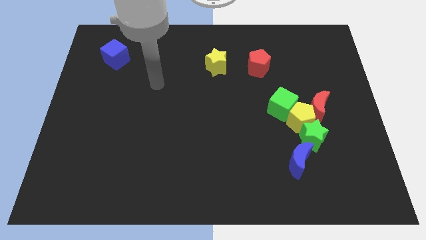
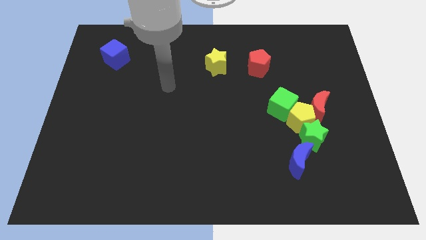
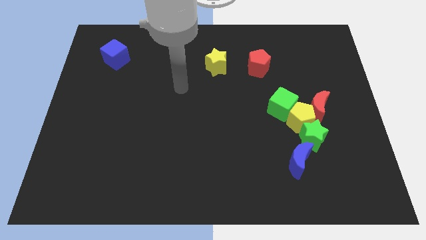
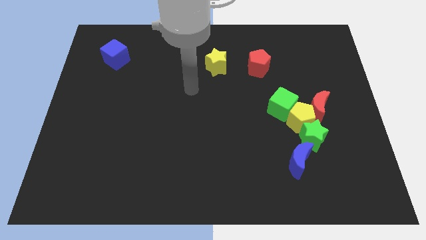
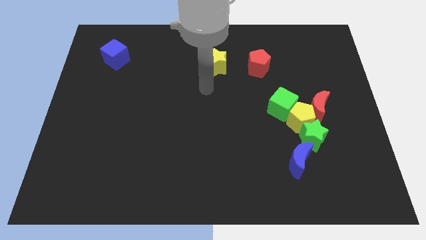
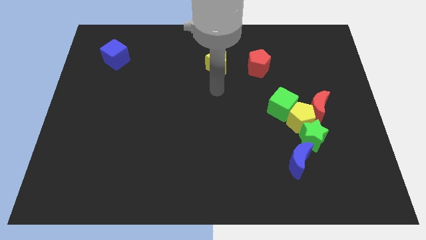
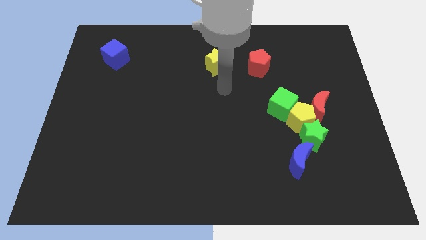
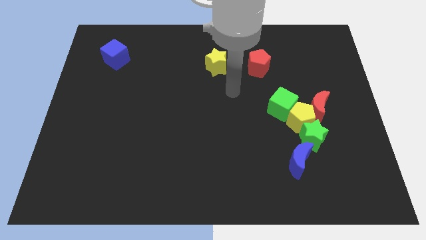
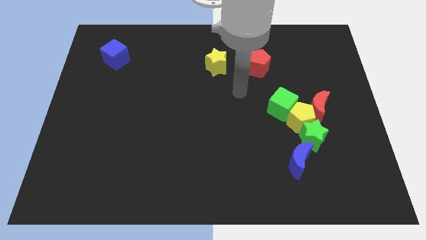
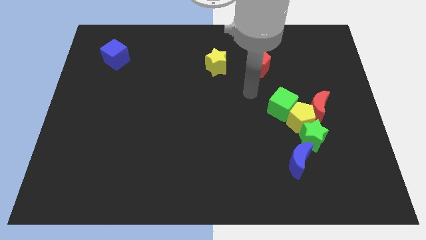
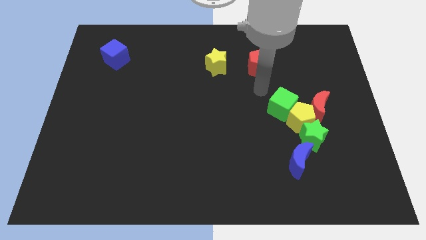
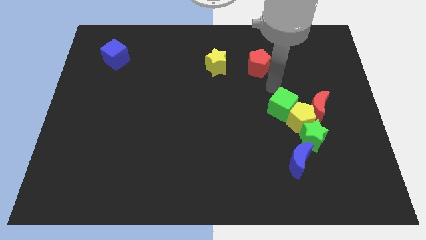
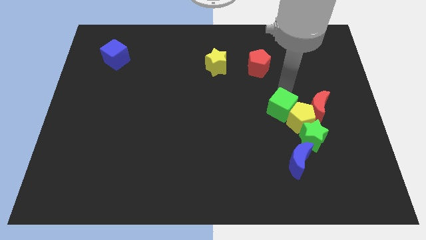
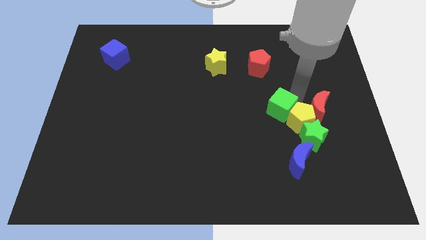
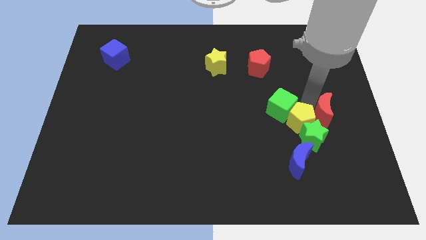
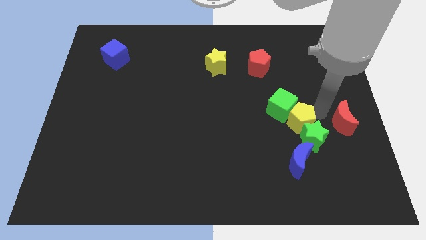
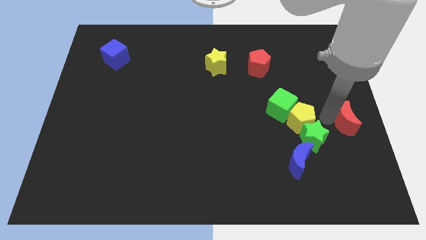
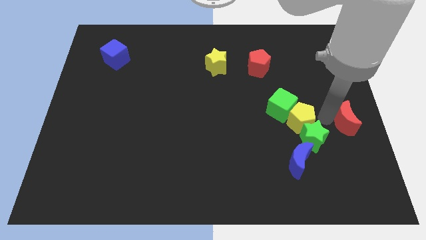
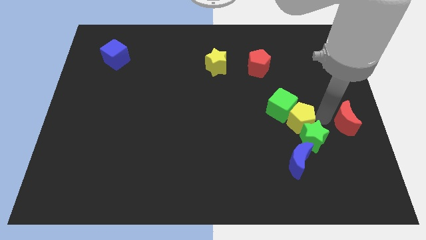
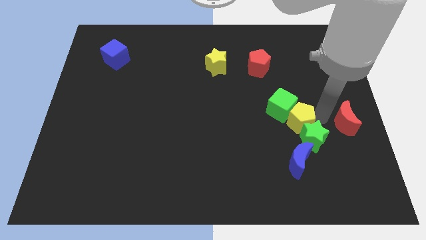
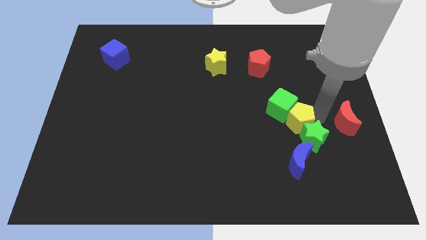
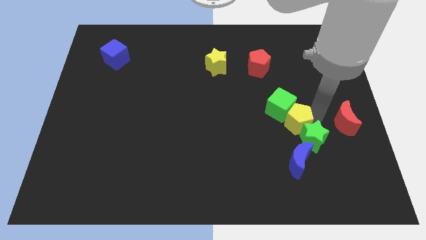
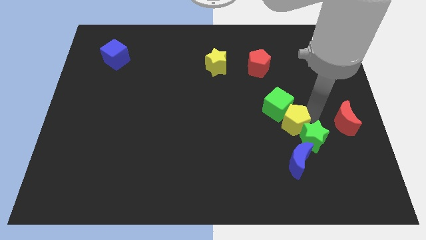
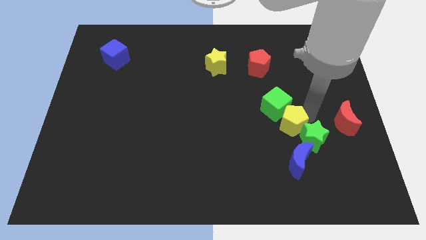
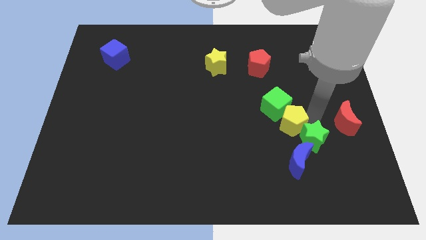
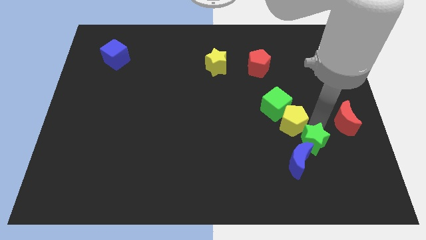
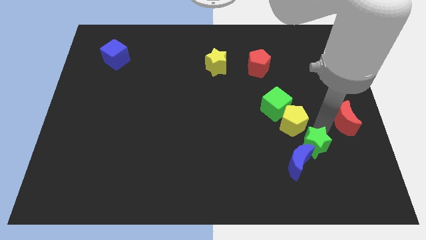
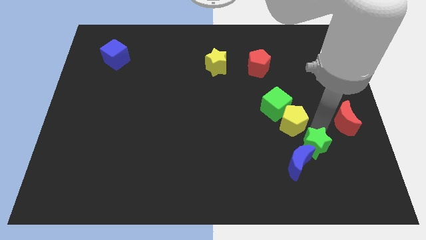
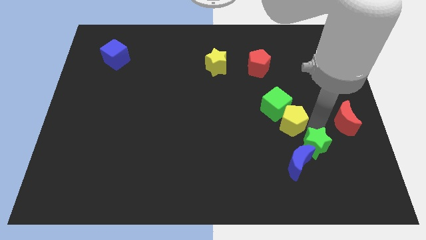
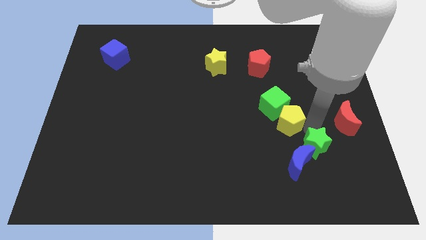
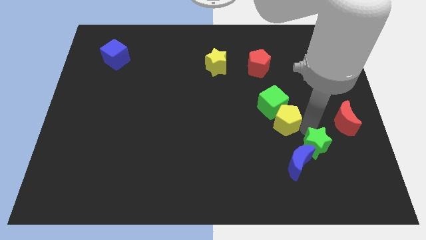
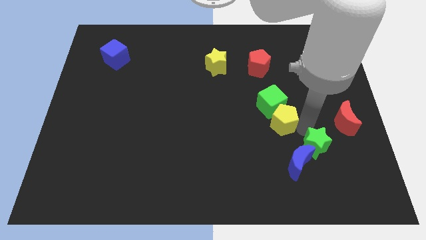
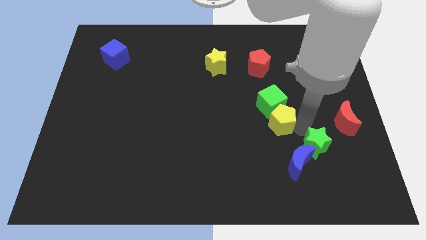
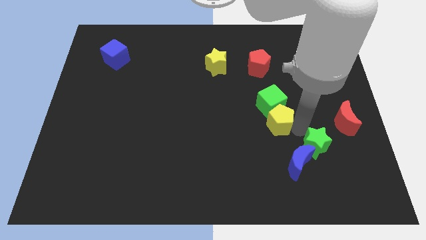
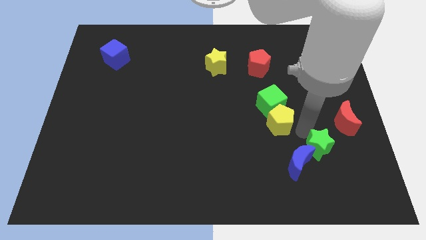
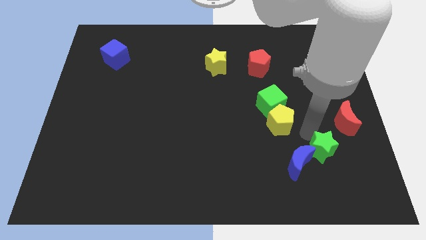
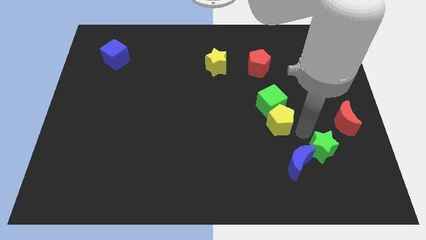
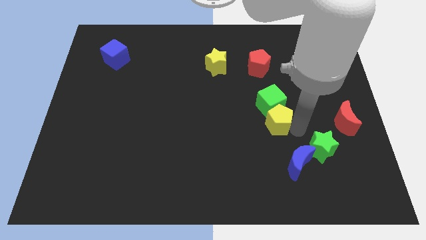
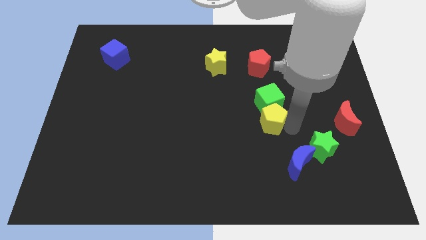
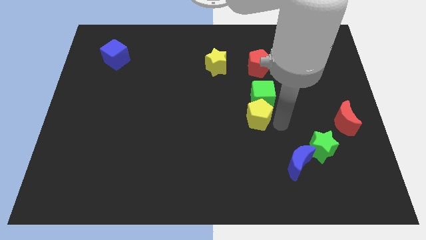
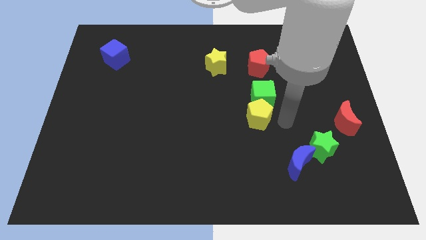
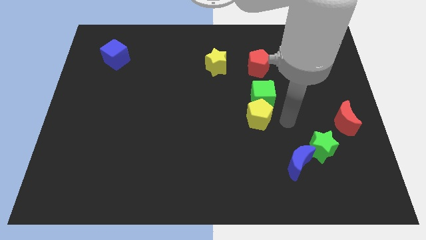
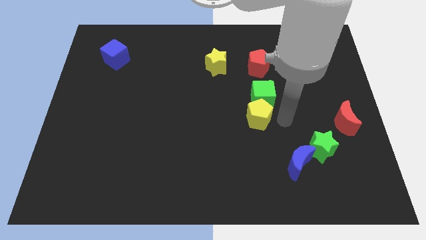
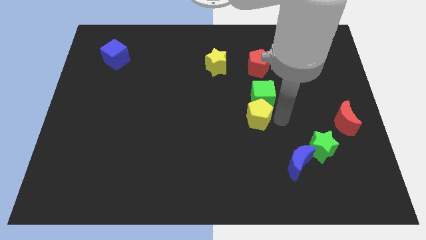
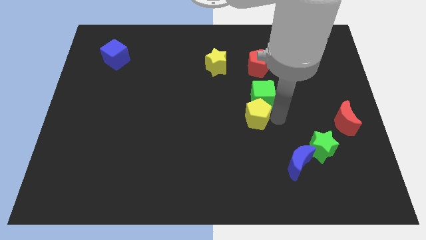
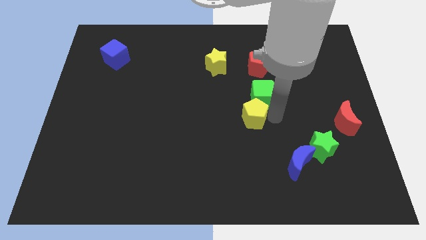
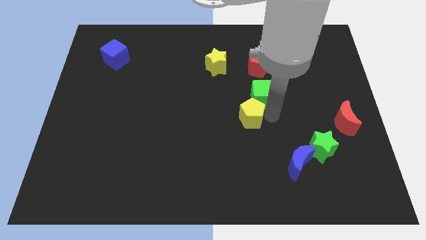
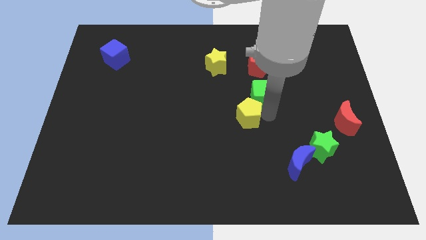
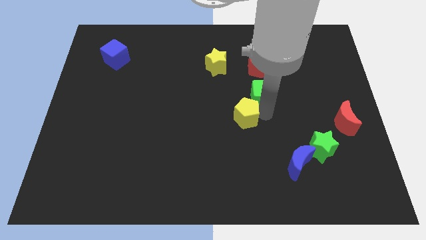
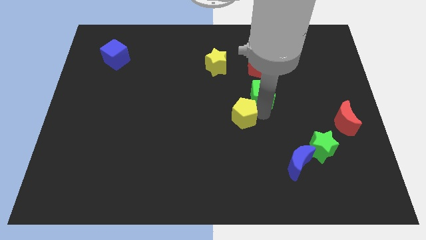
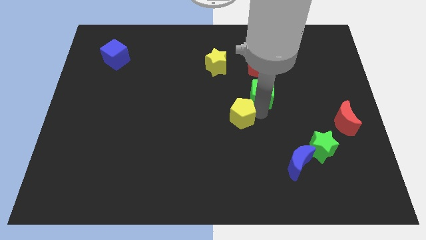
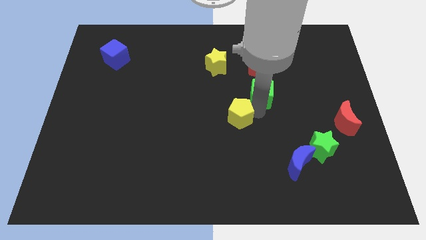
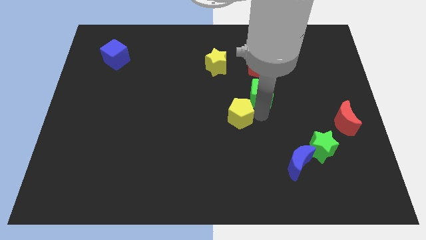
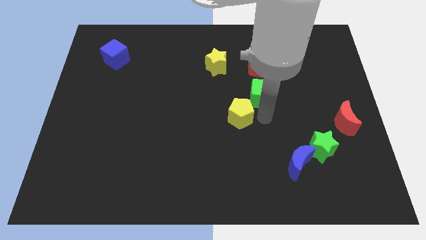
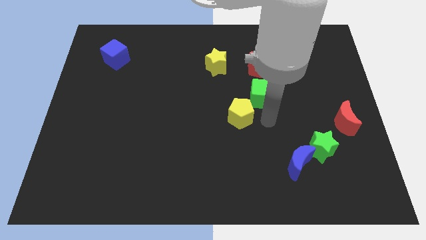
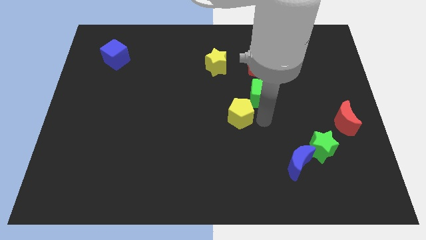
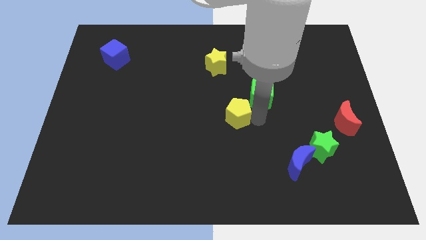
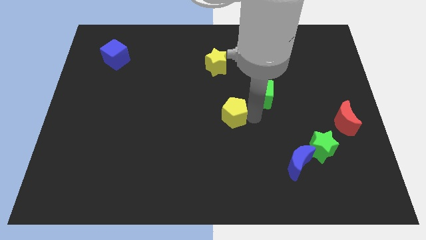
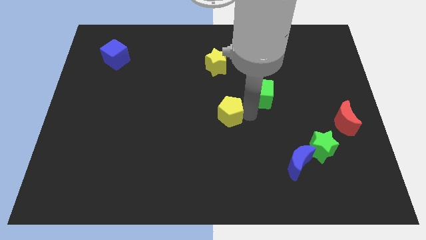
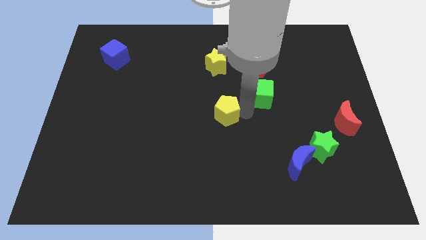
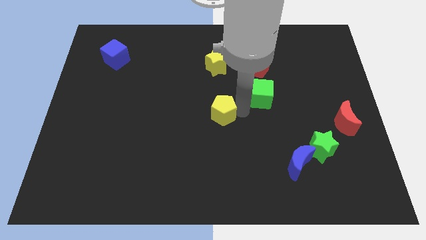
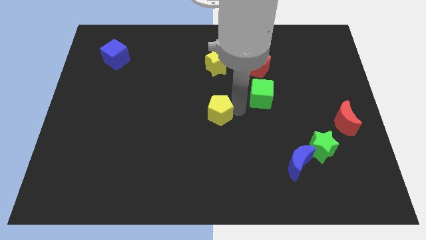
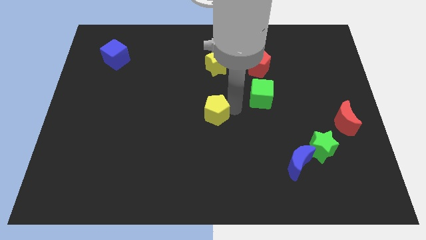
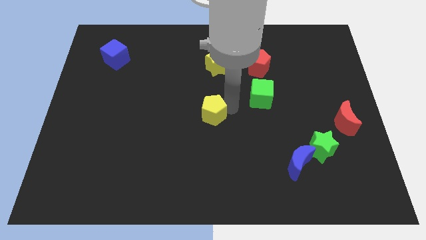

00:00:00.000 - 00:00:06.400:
push the yellow pentagon left

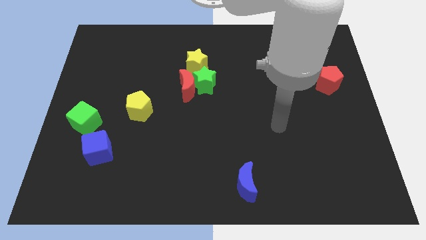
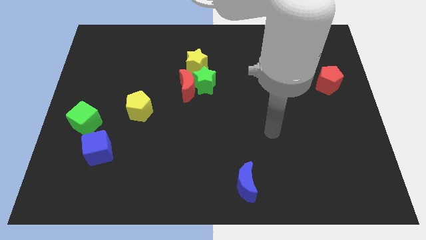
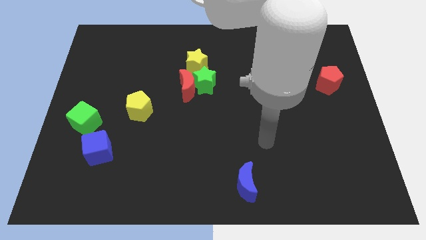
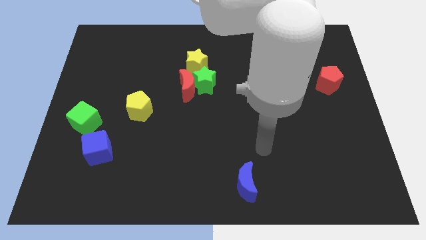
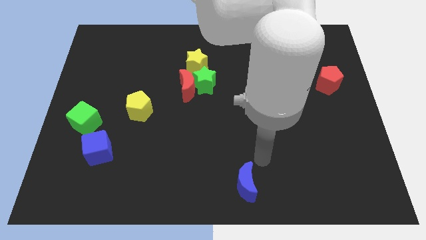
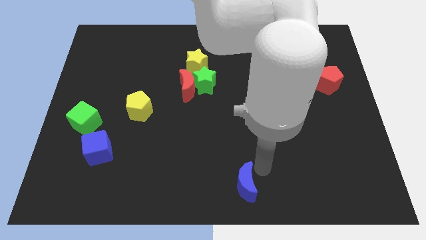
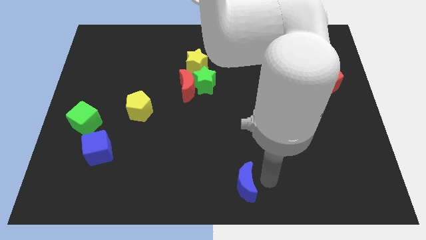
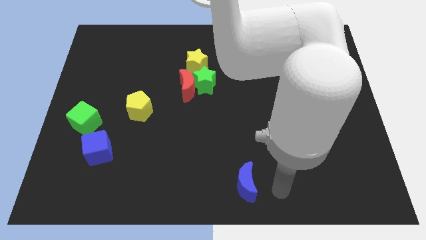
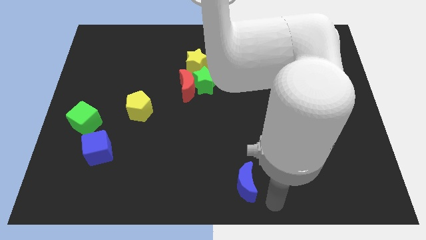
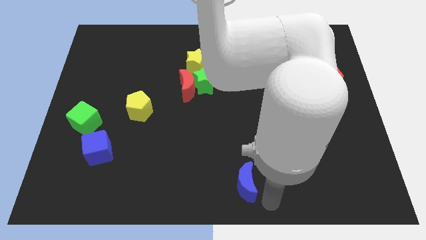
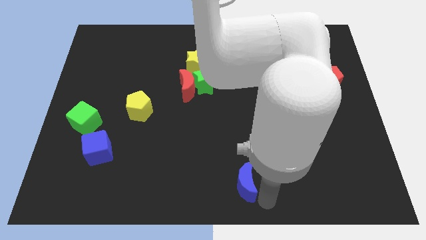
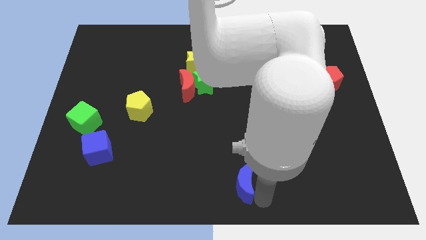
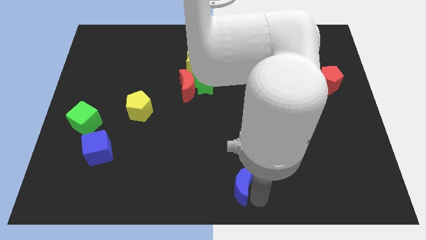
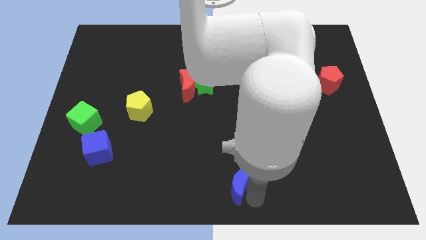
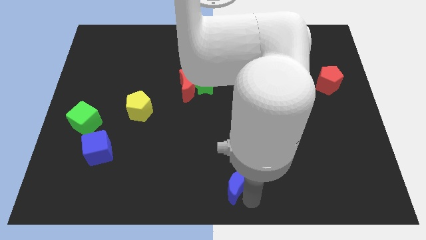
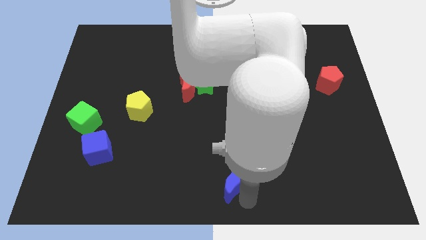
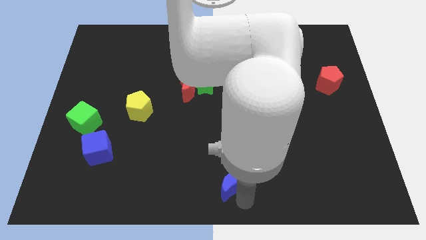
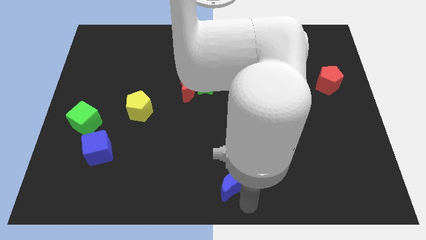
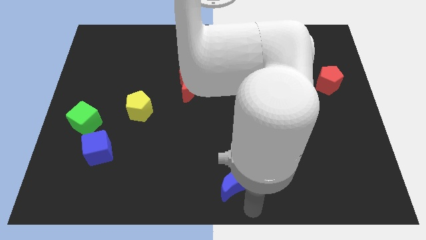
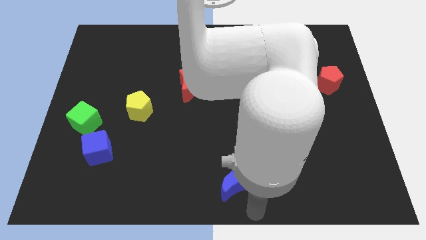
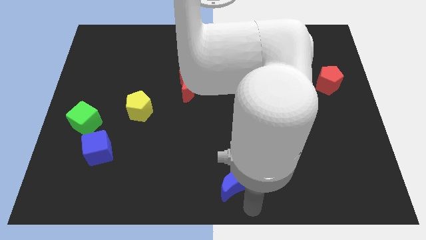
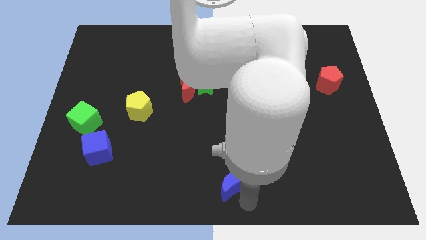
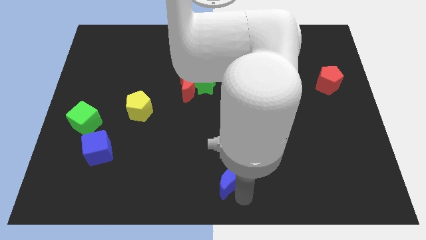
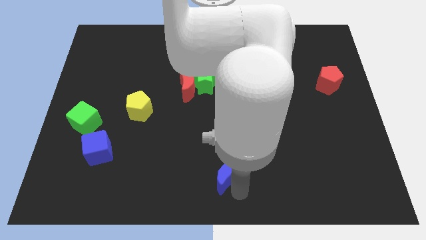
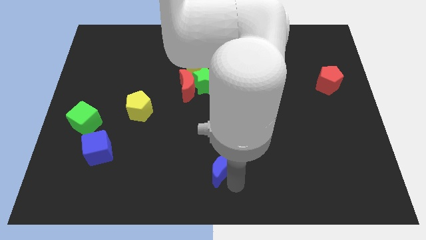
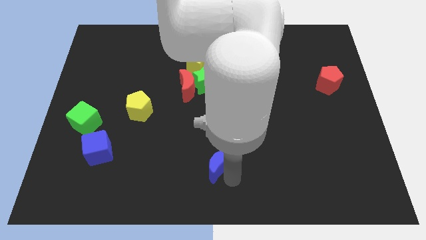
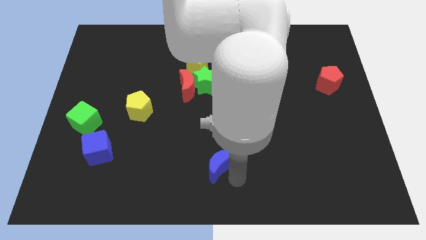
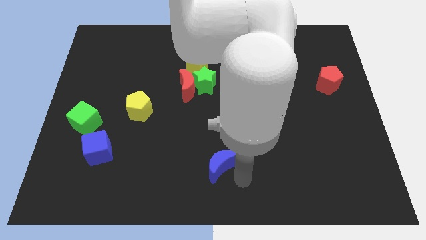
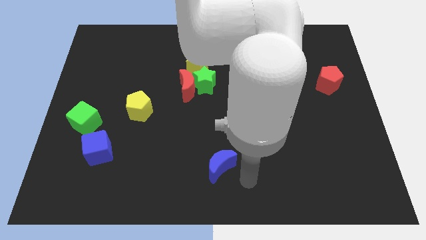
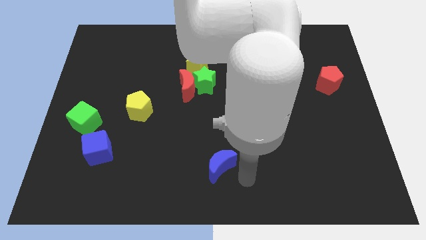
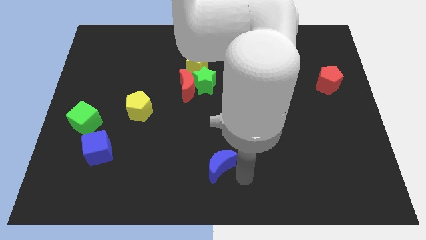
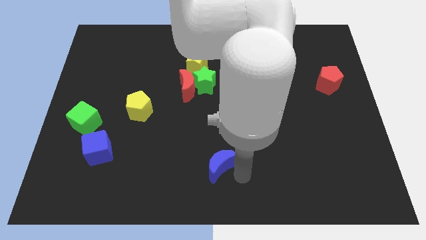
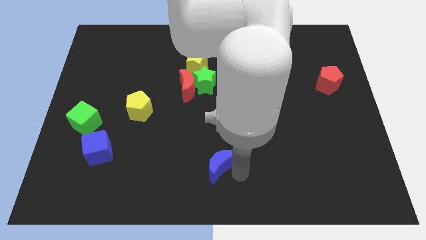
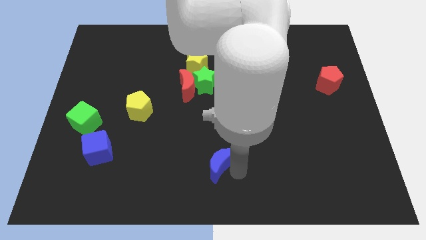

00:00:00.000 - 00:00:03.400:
move the blue moon upwards and left diagonally a little
